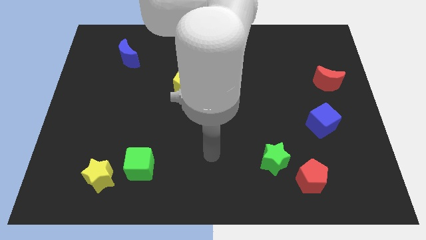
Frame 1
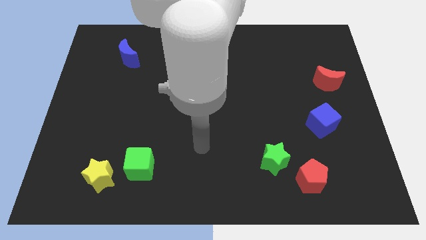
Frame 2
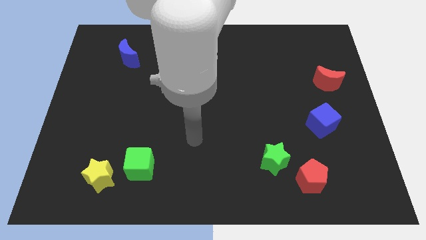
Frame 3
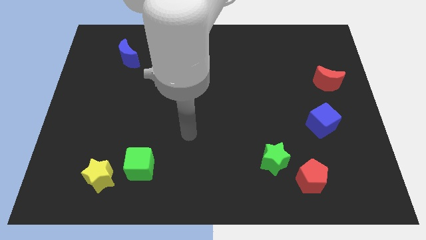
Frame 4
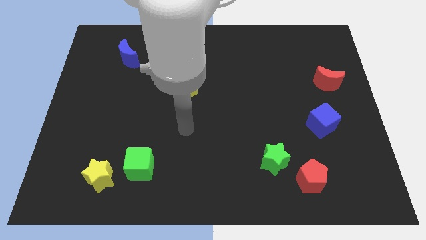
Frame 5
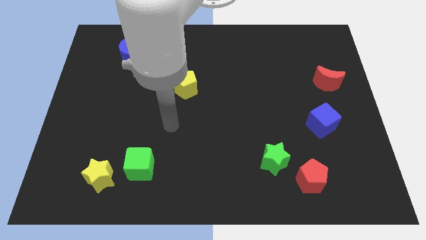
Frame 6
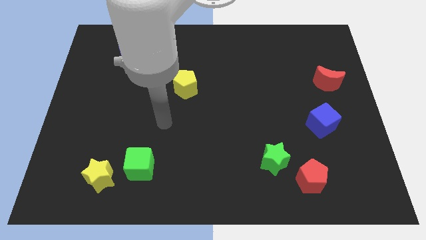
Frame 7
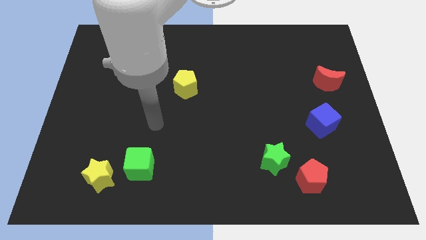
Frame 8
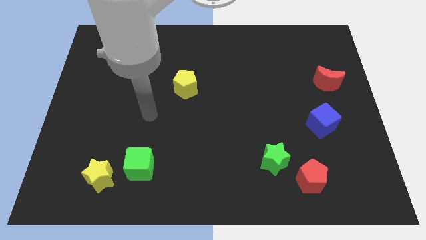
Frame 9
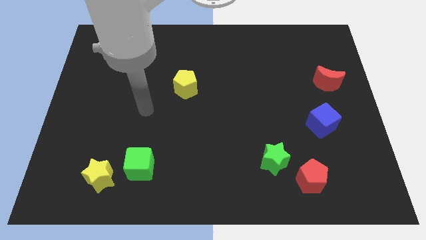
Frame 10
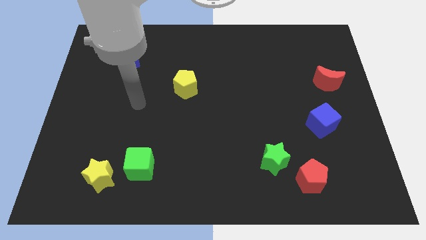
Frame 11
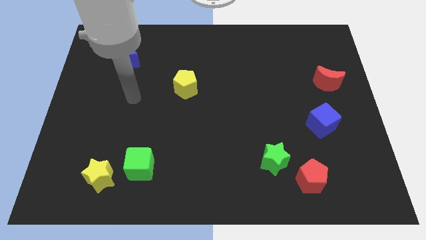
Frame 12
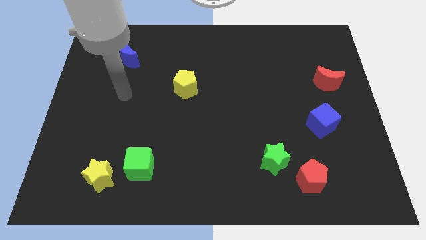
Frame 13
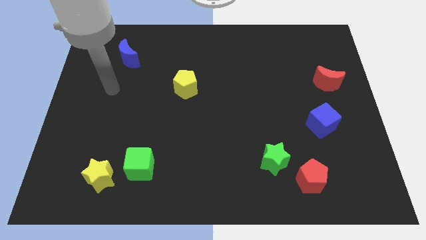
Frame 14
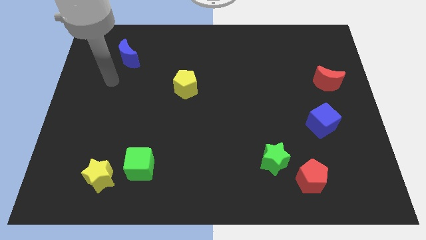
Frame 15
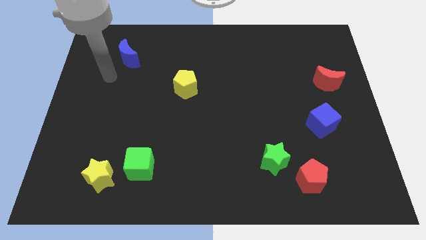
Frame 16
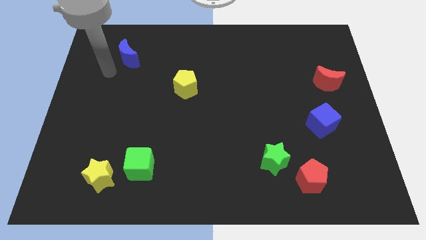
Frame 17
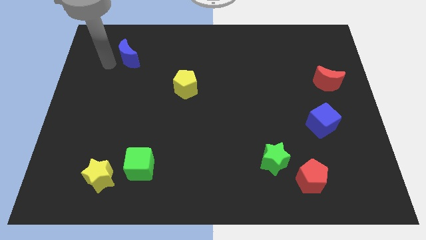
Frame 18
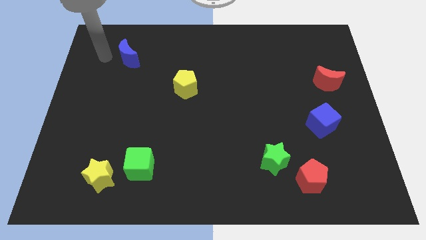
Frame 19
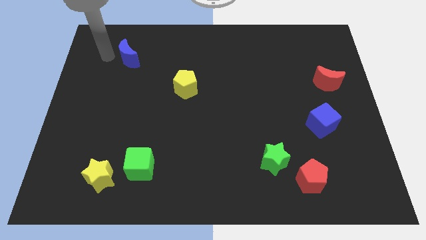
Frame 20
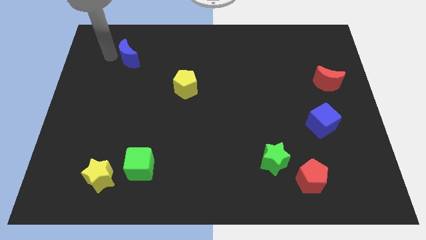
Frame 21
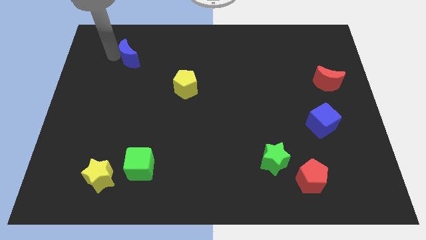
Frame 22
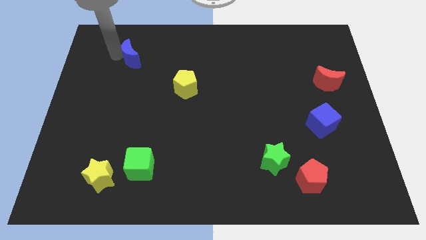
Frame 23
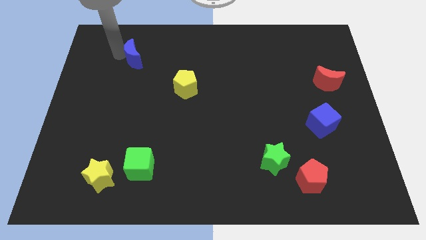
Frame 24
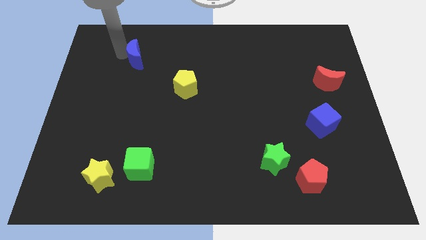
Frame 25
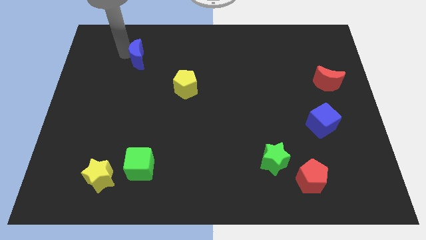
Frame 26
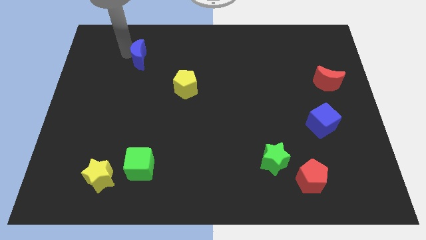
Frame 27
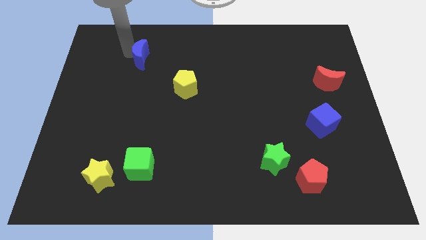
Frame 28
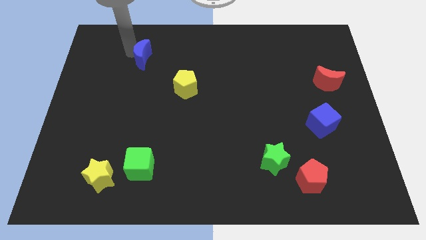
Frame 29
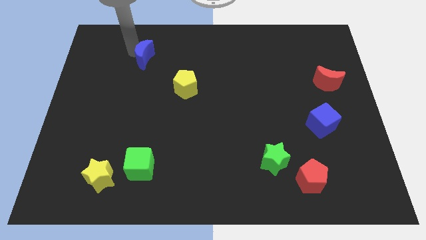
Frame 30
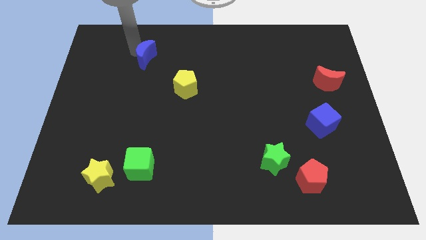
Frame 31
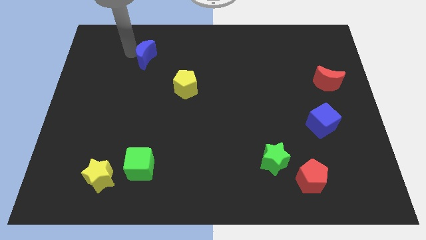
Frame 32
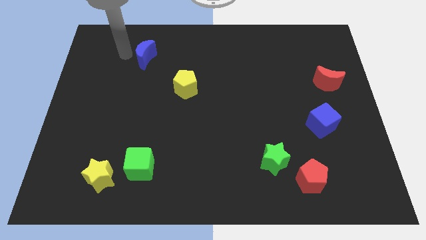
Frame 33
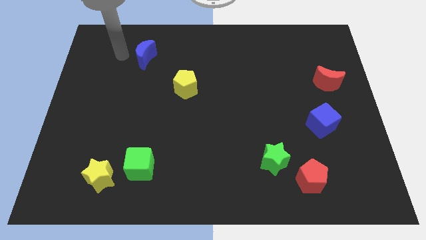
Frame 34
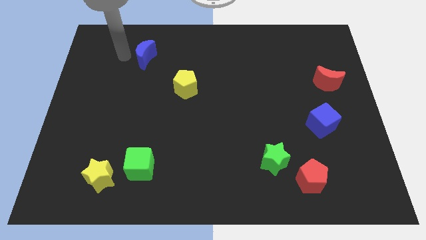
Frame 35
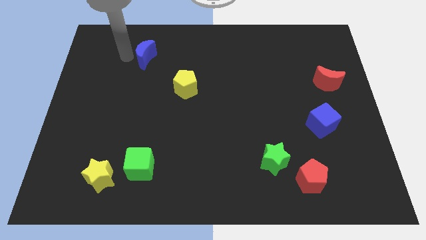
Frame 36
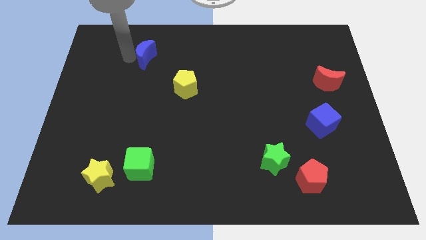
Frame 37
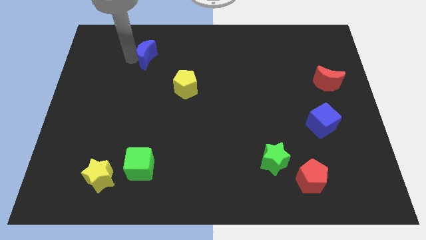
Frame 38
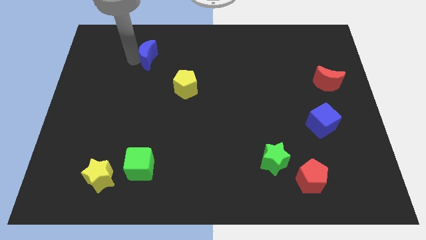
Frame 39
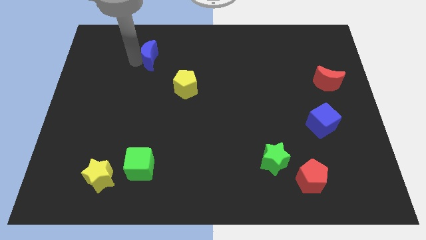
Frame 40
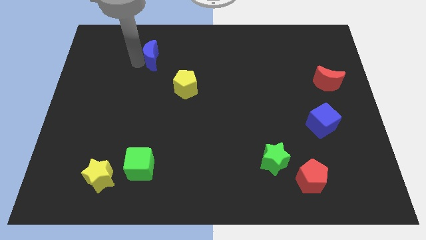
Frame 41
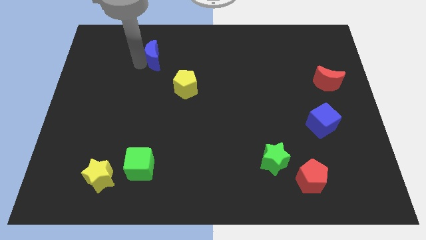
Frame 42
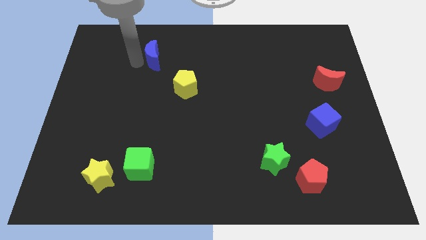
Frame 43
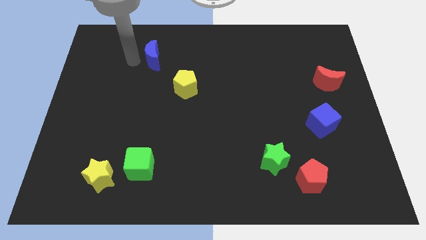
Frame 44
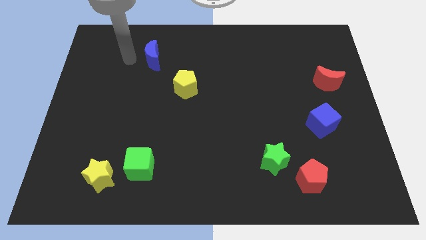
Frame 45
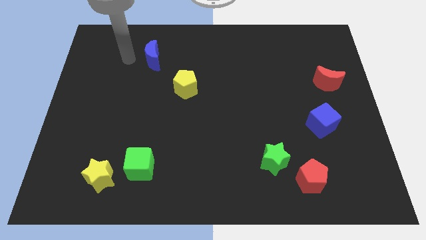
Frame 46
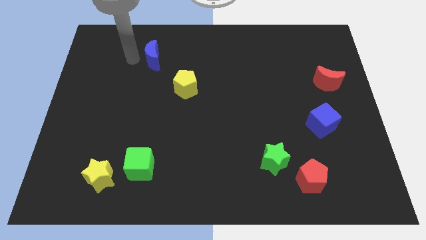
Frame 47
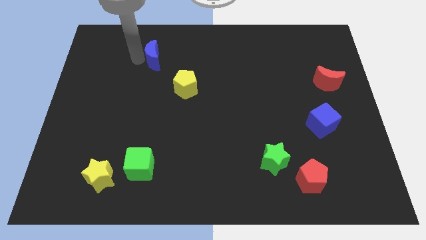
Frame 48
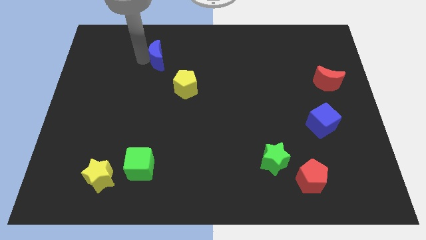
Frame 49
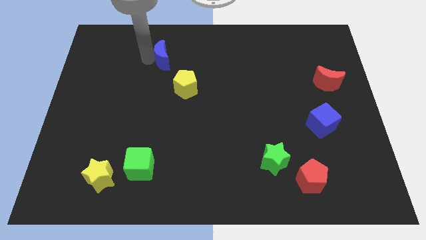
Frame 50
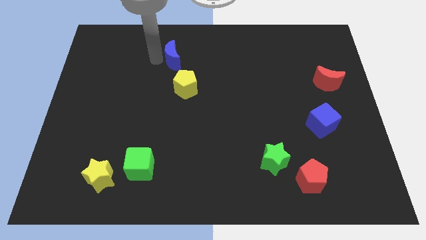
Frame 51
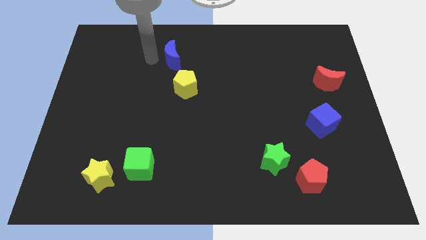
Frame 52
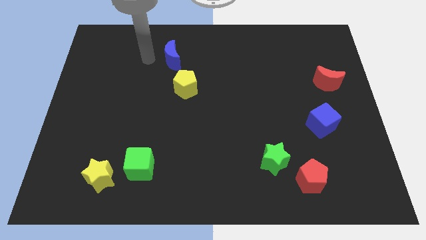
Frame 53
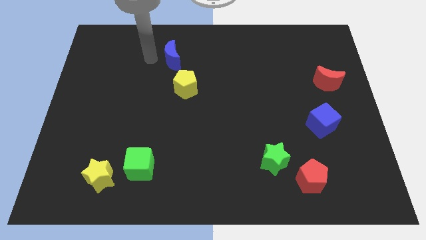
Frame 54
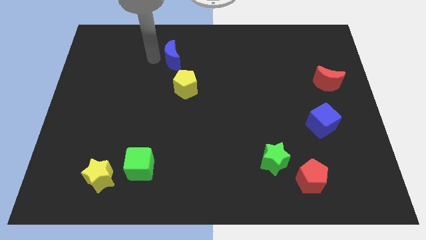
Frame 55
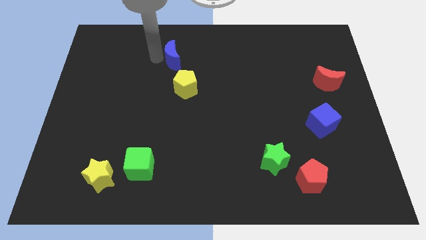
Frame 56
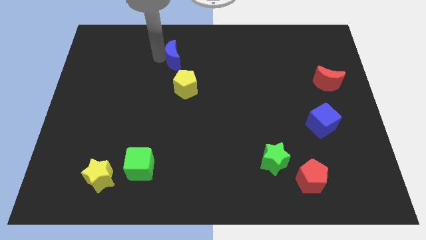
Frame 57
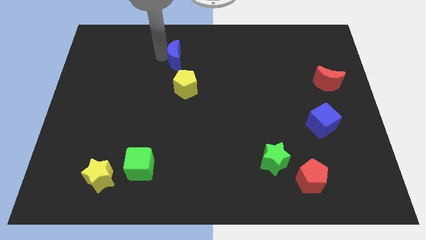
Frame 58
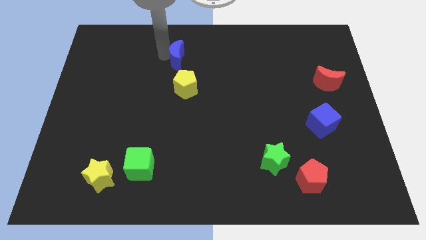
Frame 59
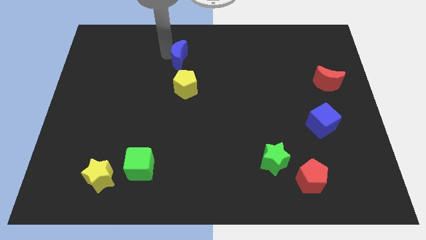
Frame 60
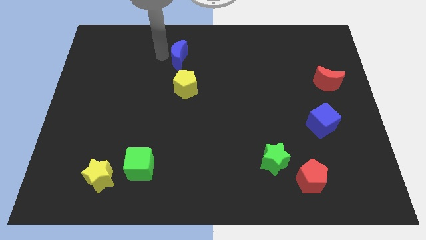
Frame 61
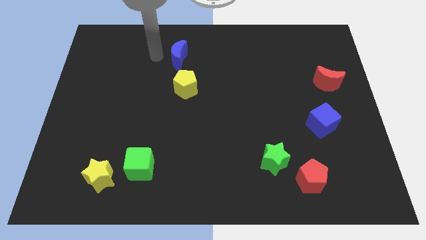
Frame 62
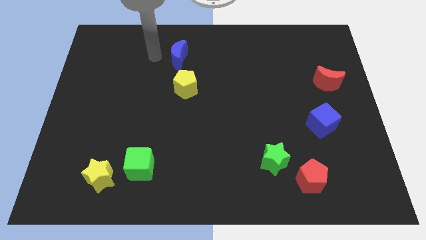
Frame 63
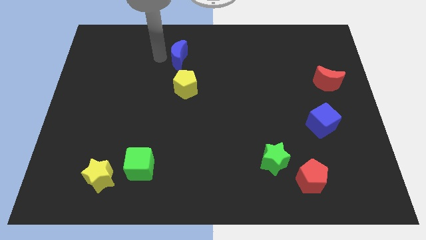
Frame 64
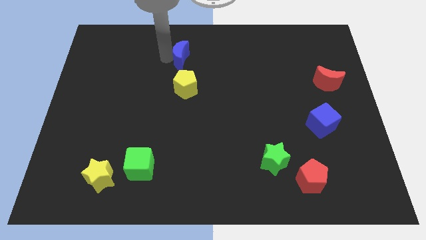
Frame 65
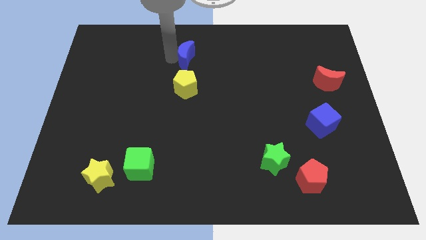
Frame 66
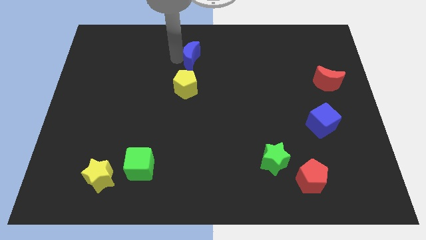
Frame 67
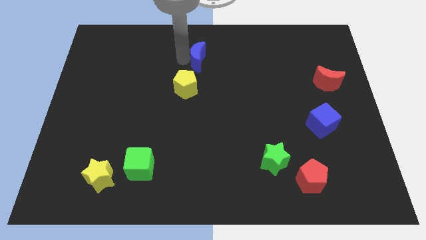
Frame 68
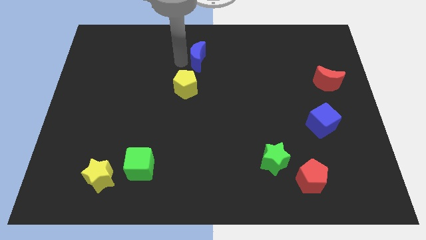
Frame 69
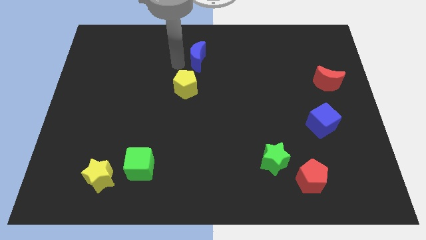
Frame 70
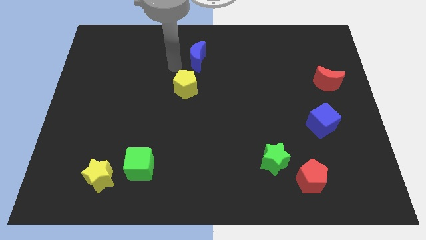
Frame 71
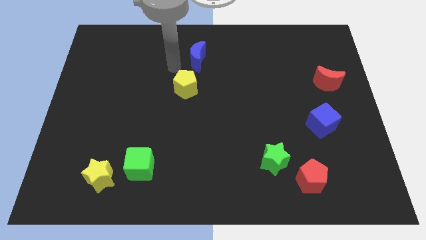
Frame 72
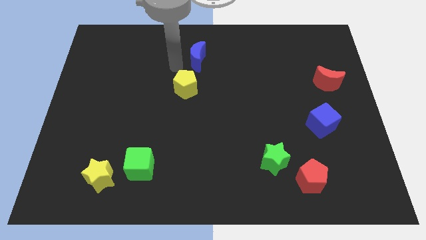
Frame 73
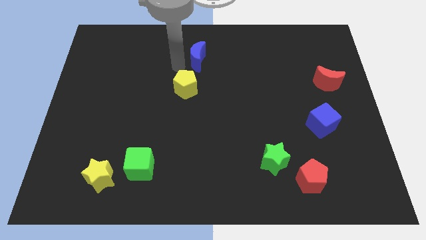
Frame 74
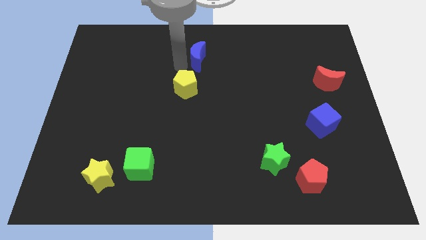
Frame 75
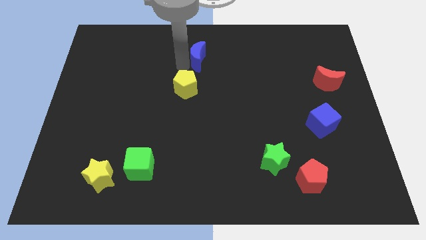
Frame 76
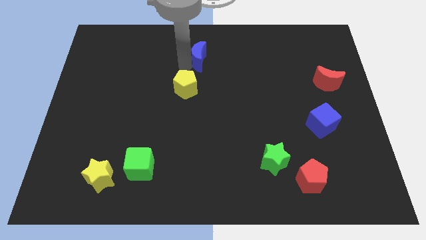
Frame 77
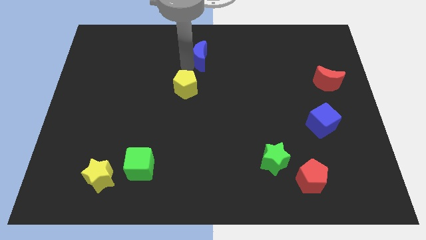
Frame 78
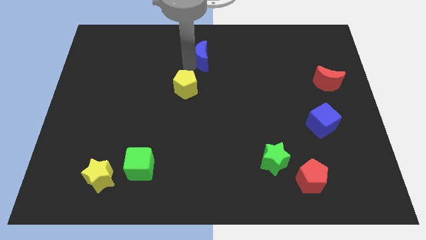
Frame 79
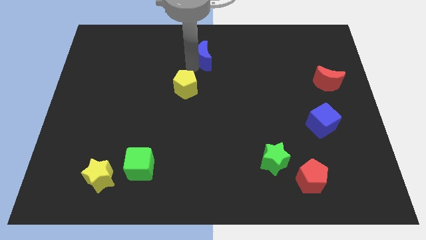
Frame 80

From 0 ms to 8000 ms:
push the blue moon to the right
